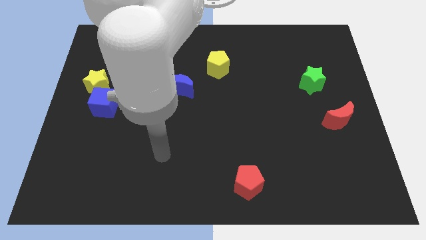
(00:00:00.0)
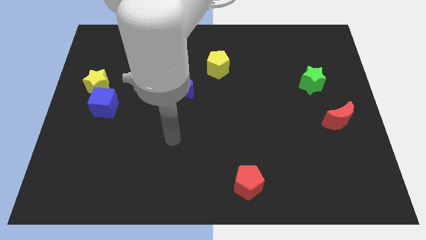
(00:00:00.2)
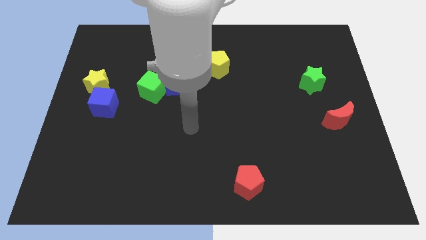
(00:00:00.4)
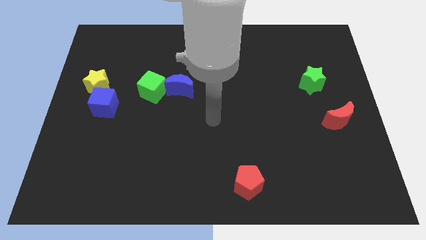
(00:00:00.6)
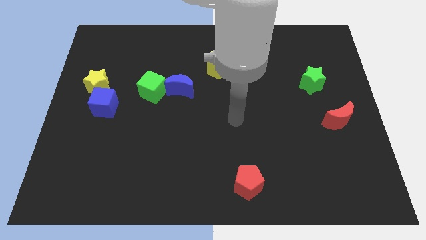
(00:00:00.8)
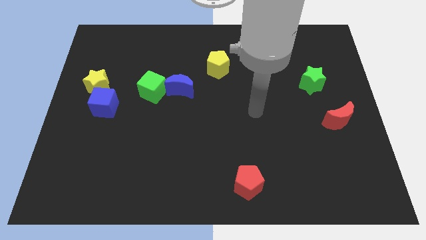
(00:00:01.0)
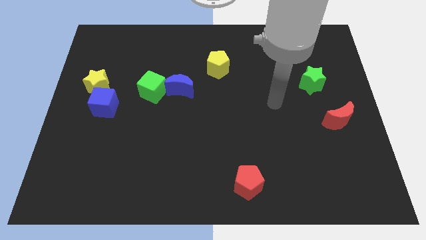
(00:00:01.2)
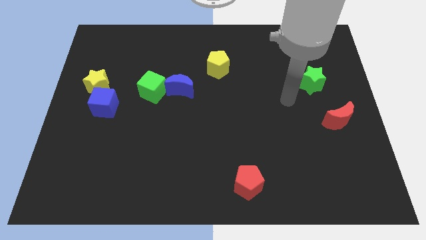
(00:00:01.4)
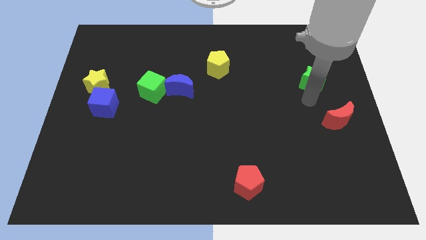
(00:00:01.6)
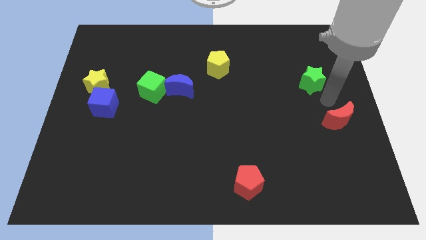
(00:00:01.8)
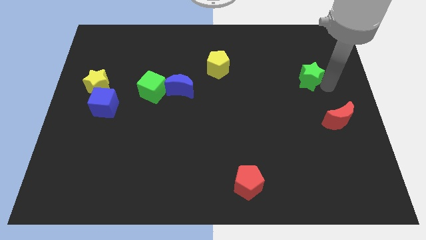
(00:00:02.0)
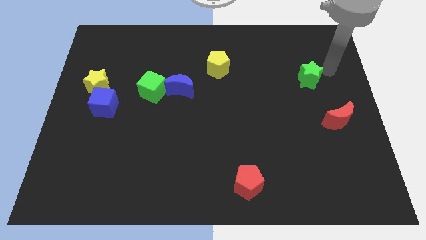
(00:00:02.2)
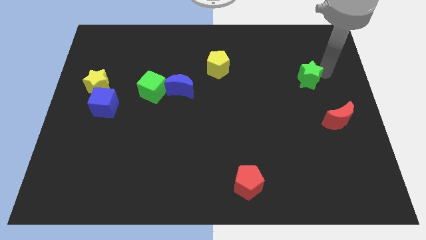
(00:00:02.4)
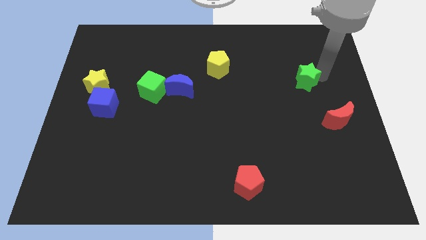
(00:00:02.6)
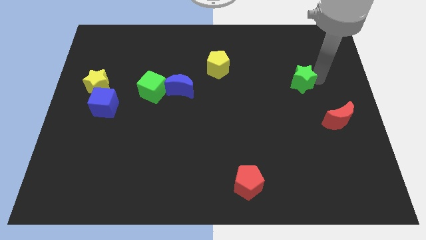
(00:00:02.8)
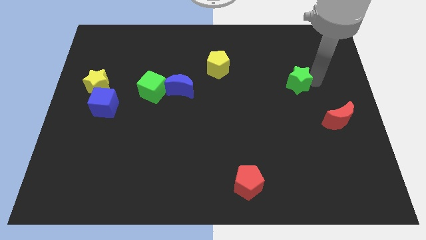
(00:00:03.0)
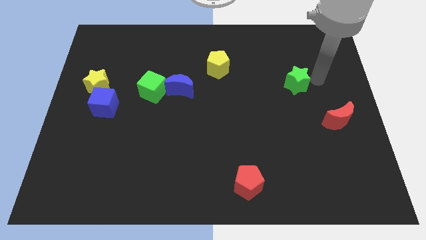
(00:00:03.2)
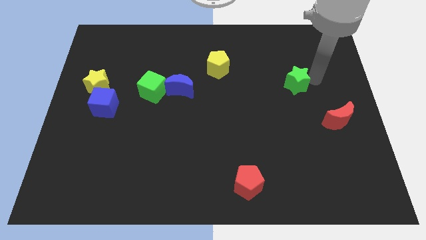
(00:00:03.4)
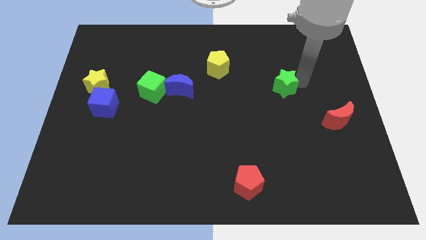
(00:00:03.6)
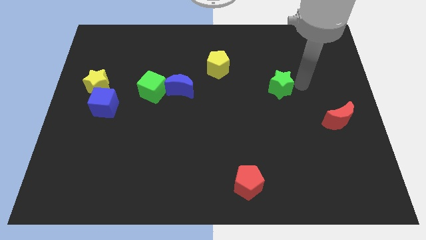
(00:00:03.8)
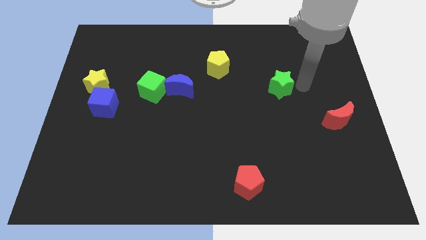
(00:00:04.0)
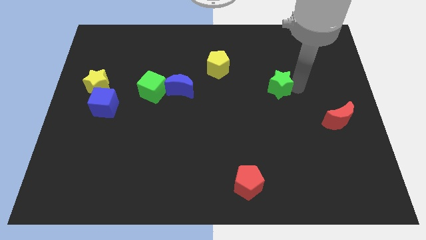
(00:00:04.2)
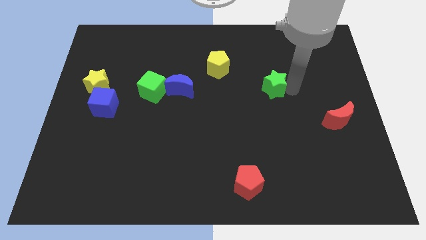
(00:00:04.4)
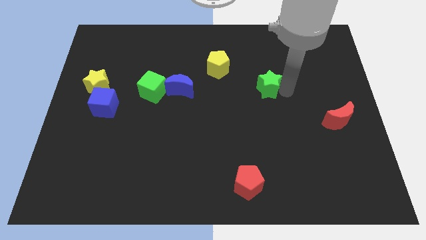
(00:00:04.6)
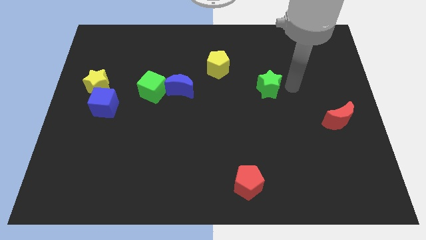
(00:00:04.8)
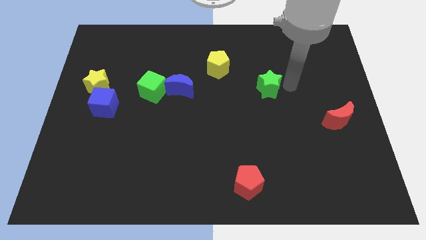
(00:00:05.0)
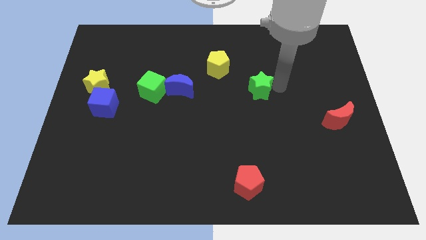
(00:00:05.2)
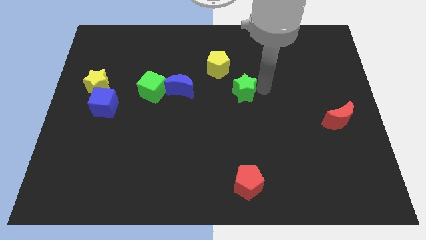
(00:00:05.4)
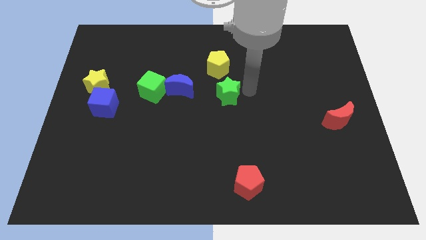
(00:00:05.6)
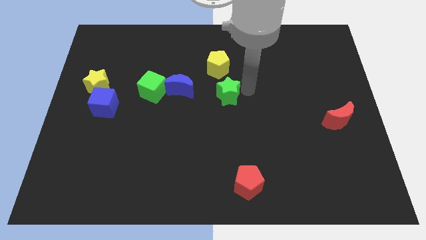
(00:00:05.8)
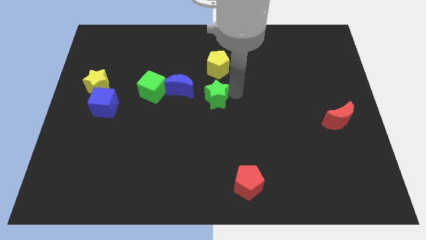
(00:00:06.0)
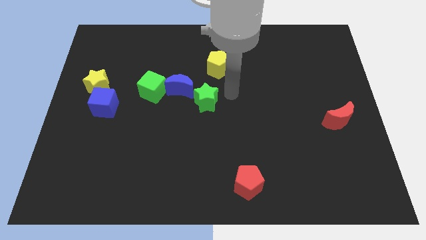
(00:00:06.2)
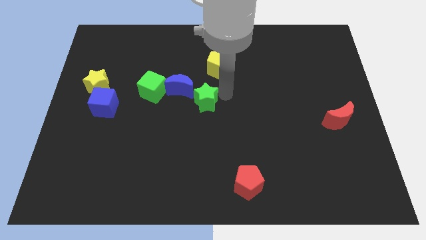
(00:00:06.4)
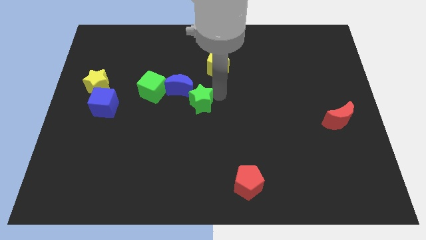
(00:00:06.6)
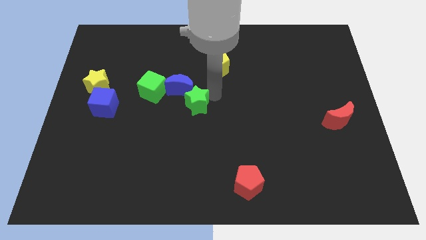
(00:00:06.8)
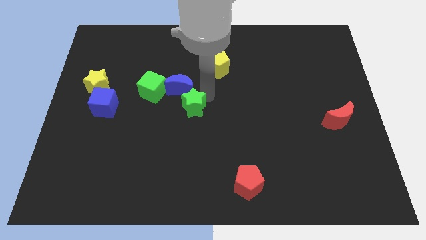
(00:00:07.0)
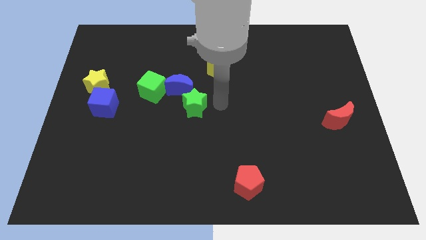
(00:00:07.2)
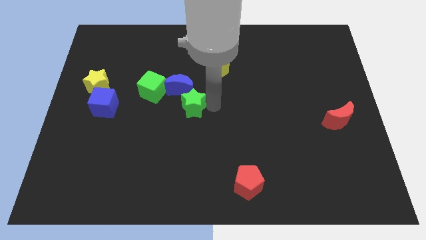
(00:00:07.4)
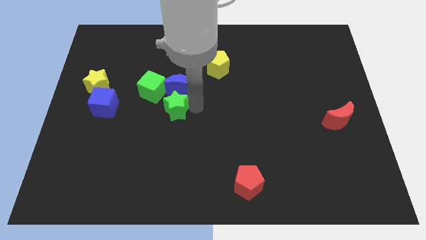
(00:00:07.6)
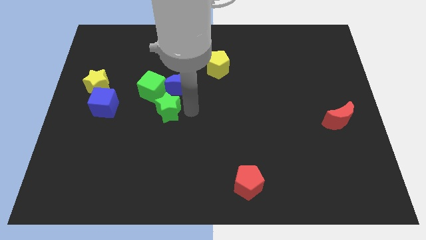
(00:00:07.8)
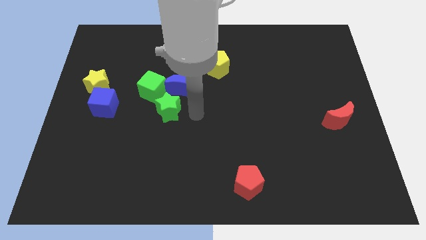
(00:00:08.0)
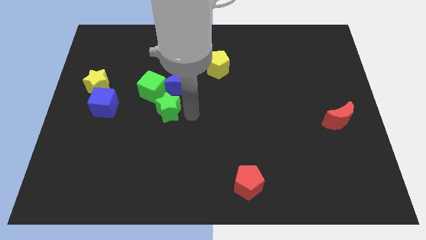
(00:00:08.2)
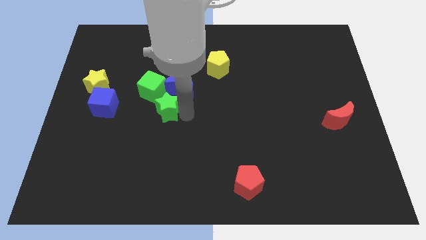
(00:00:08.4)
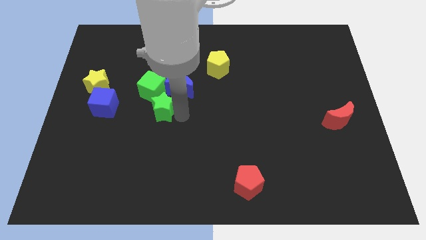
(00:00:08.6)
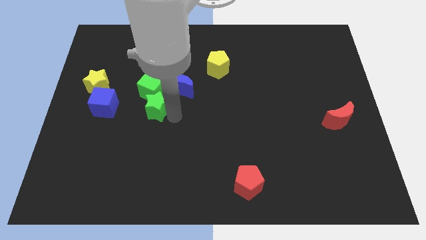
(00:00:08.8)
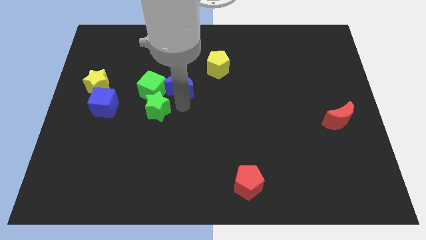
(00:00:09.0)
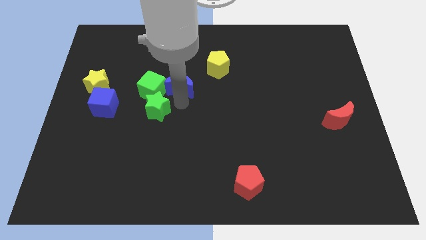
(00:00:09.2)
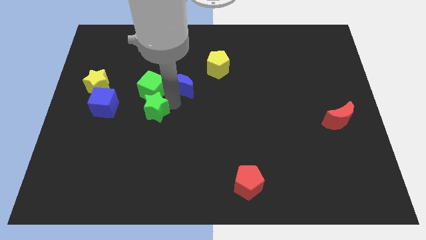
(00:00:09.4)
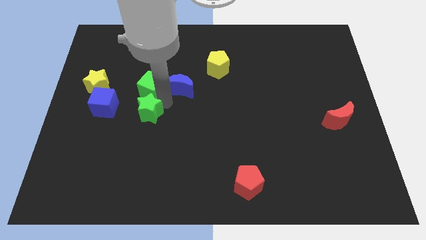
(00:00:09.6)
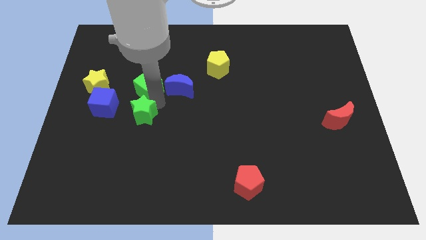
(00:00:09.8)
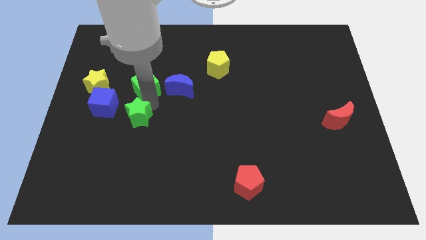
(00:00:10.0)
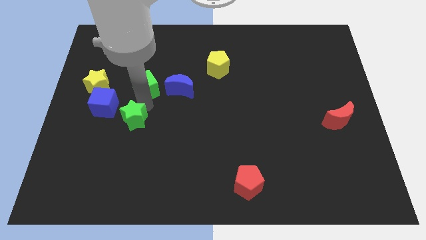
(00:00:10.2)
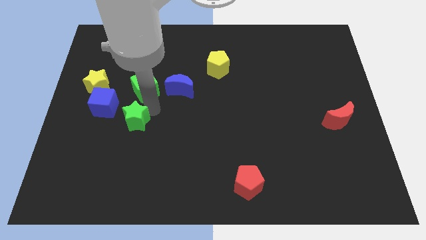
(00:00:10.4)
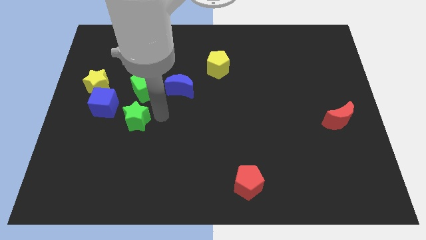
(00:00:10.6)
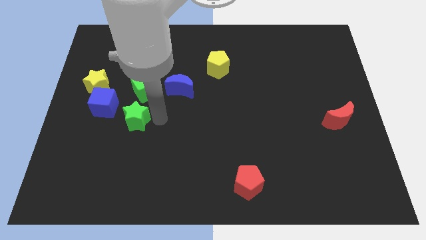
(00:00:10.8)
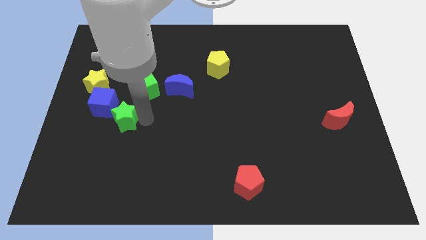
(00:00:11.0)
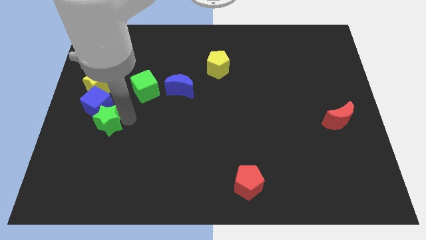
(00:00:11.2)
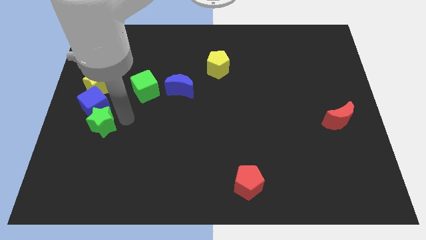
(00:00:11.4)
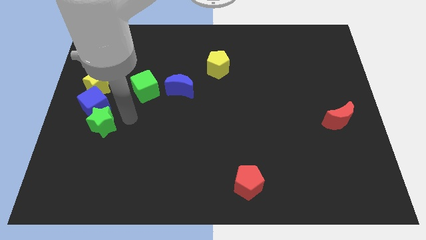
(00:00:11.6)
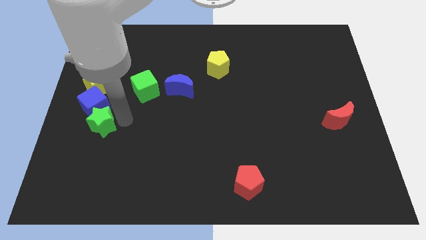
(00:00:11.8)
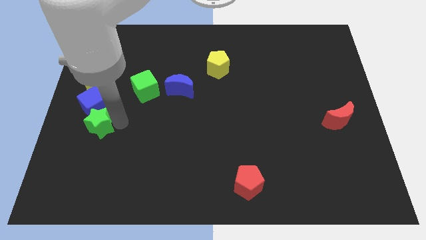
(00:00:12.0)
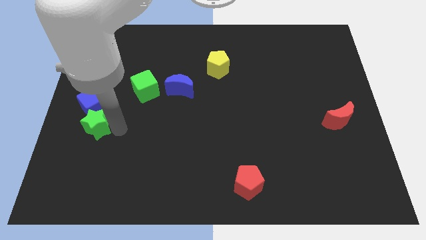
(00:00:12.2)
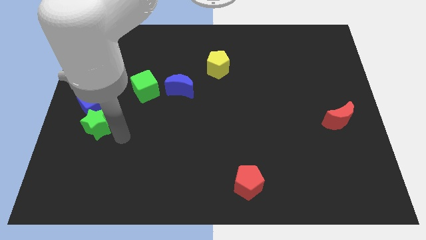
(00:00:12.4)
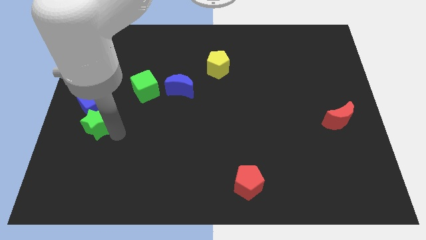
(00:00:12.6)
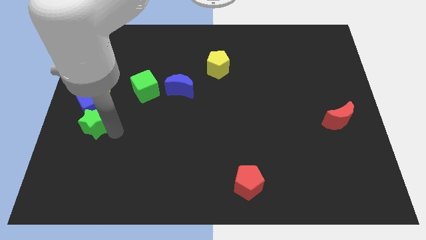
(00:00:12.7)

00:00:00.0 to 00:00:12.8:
slide the green star to the left side of the board
